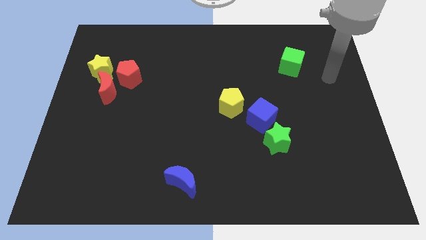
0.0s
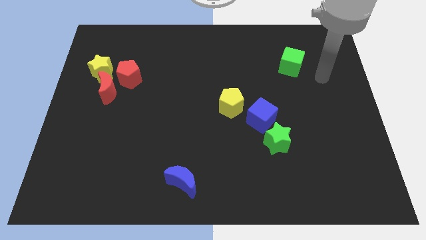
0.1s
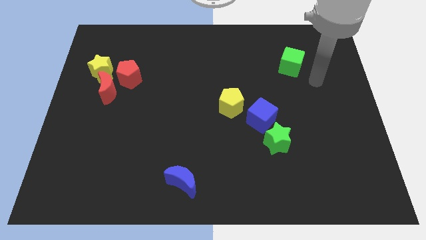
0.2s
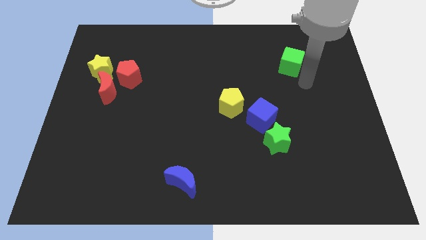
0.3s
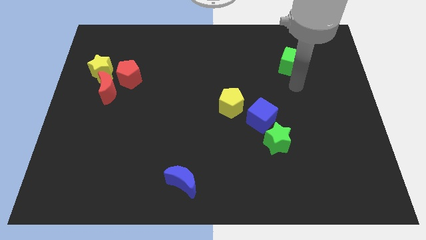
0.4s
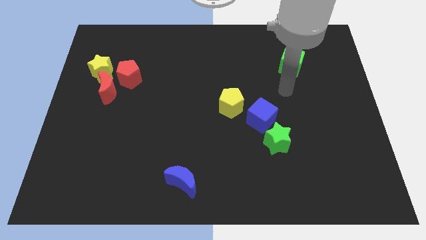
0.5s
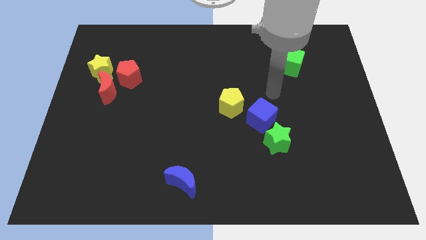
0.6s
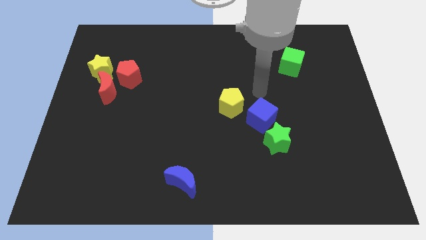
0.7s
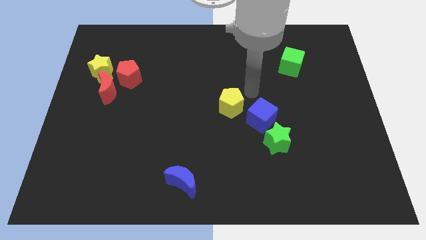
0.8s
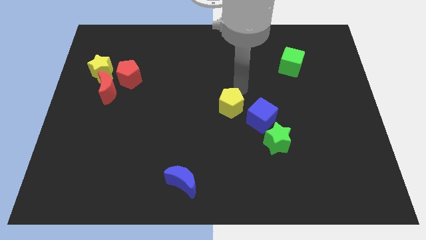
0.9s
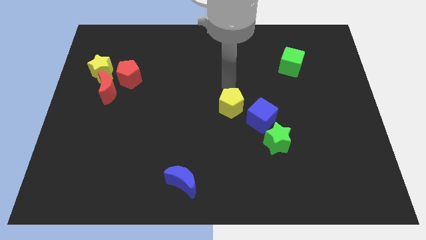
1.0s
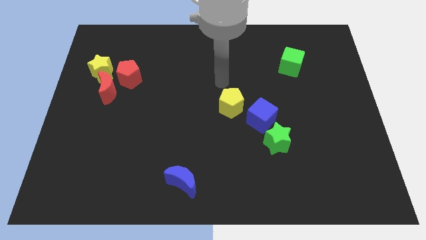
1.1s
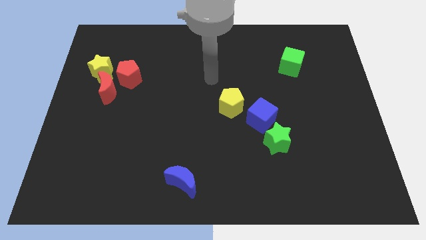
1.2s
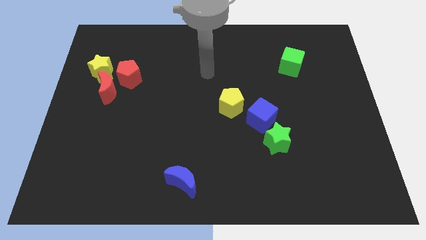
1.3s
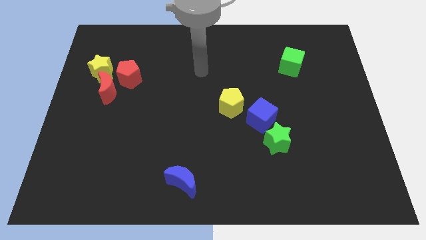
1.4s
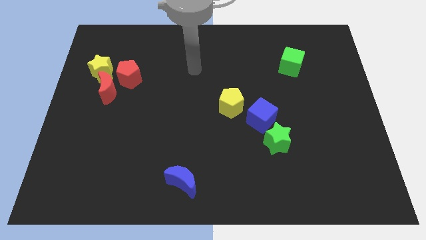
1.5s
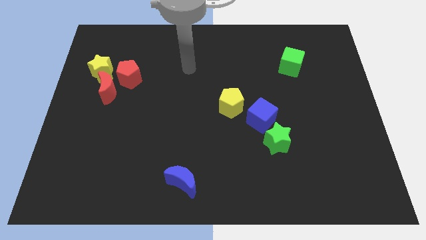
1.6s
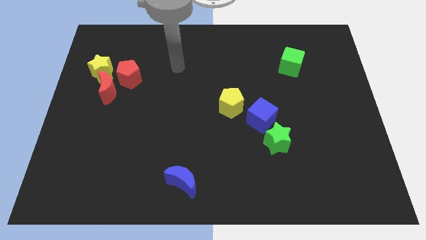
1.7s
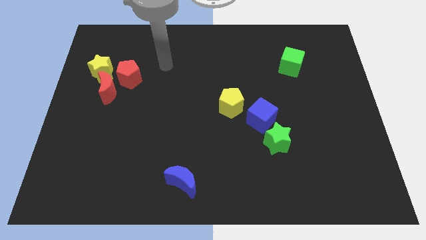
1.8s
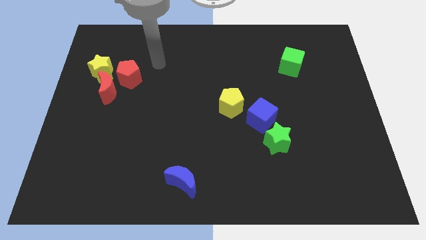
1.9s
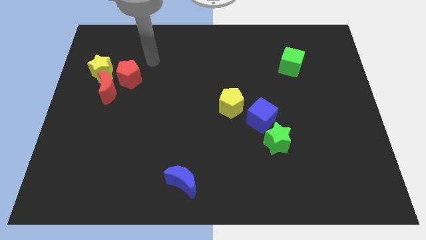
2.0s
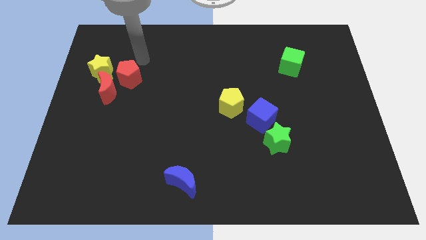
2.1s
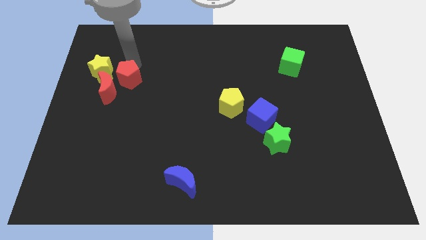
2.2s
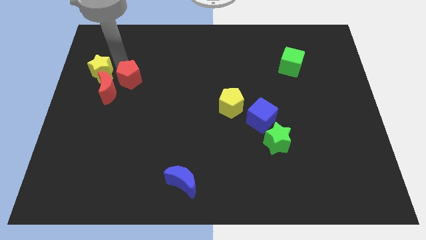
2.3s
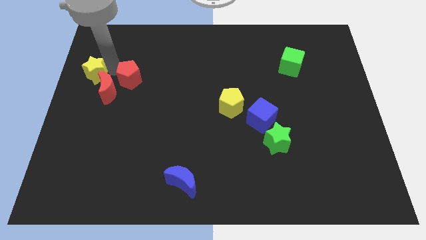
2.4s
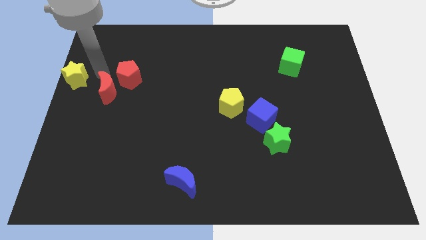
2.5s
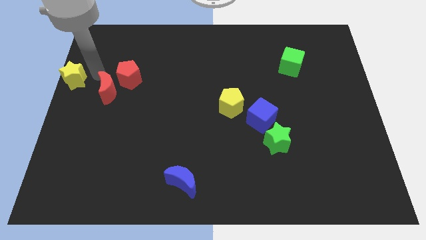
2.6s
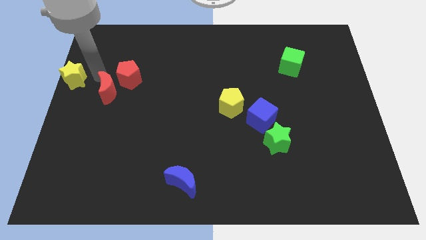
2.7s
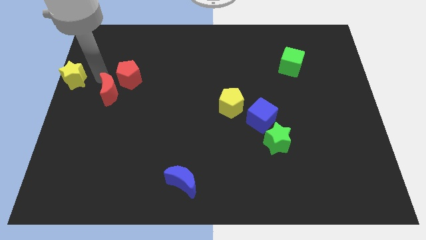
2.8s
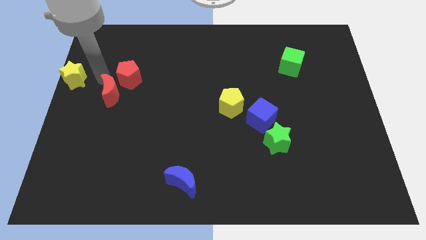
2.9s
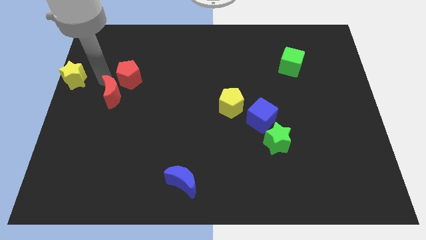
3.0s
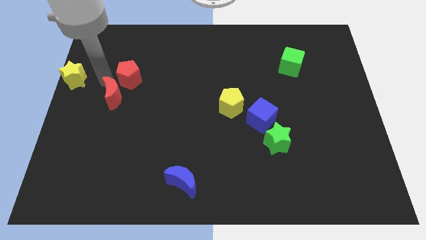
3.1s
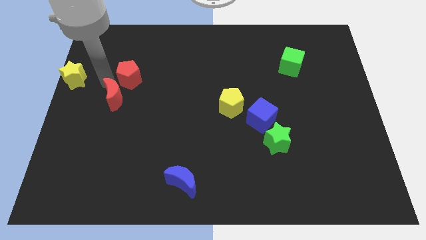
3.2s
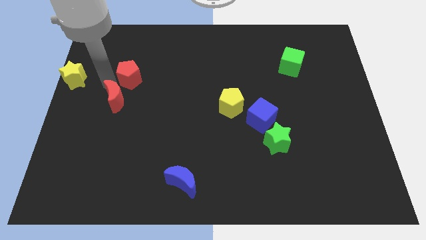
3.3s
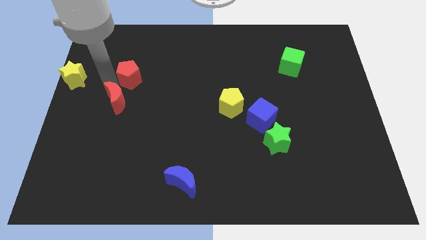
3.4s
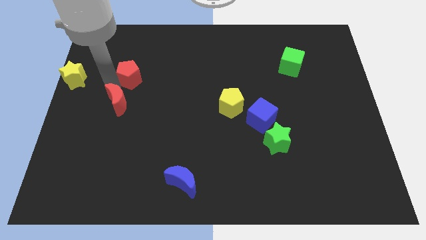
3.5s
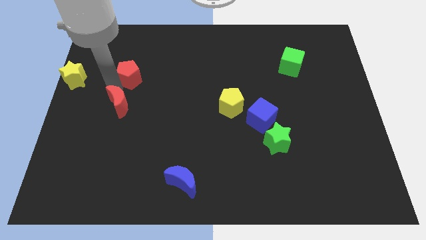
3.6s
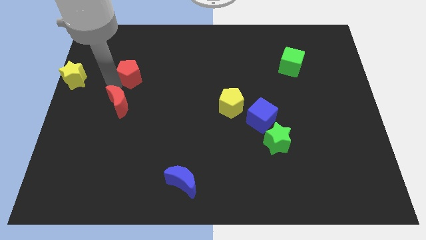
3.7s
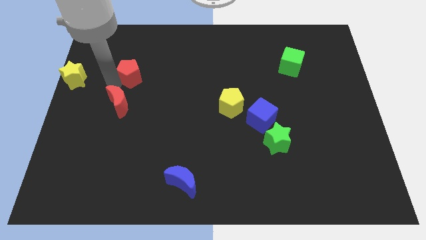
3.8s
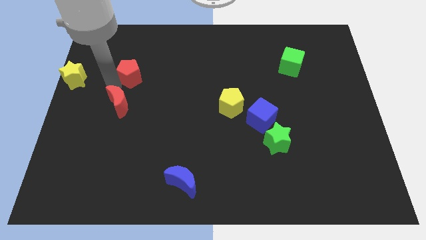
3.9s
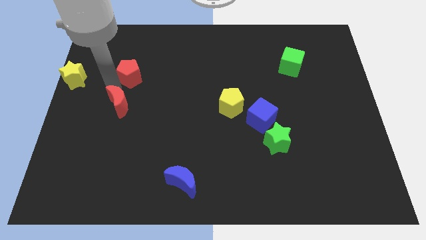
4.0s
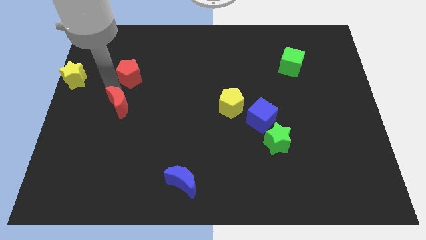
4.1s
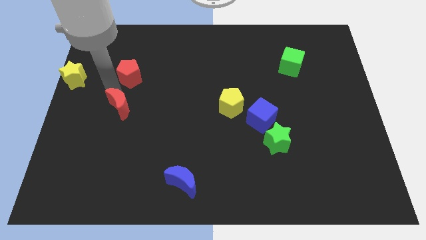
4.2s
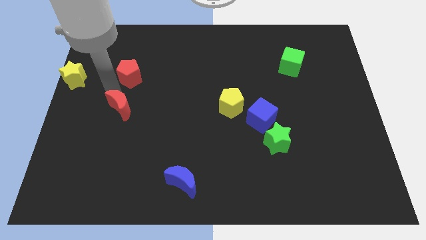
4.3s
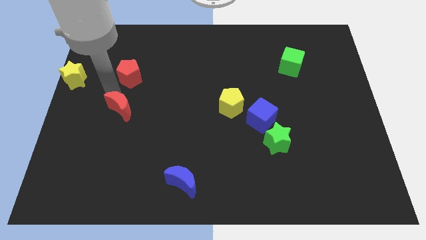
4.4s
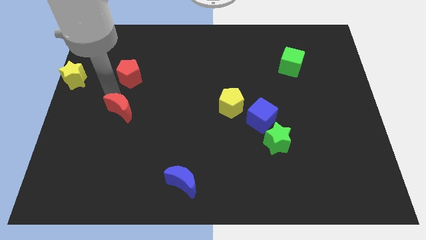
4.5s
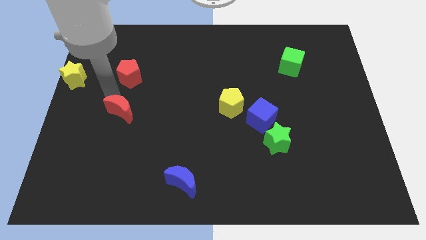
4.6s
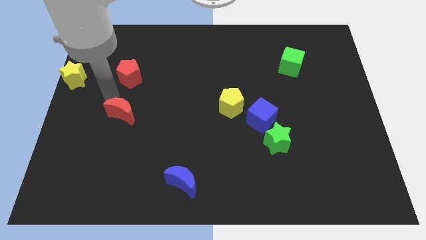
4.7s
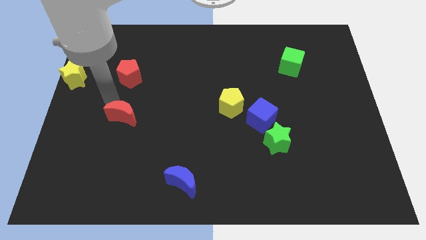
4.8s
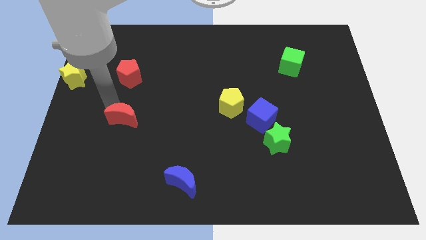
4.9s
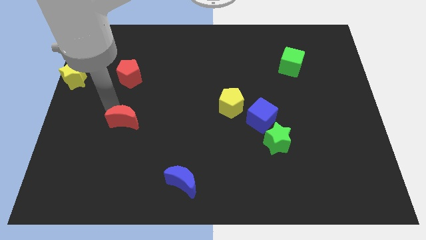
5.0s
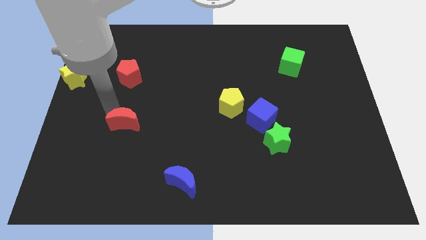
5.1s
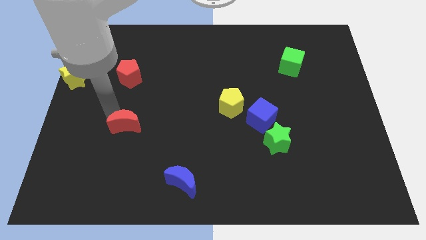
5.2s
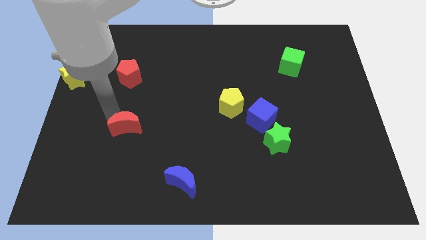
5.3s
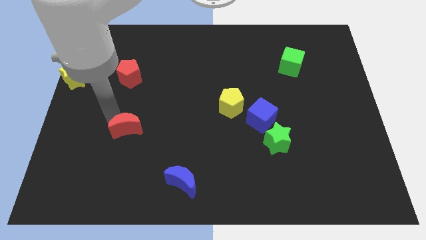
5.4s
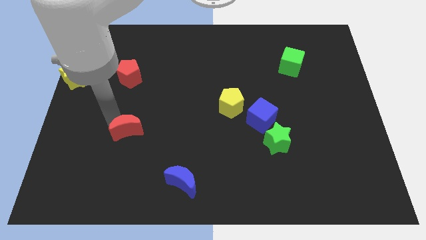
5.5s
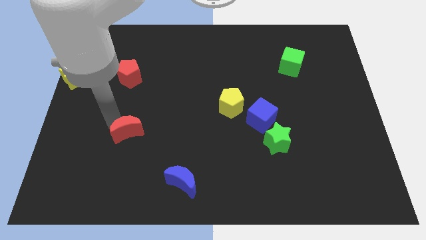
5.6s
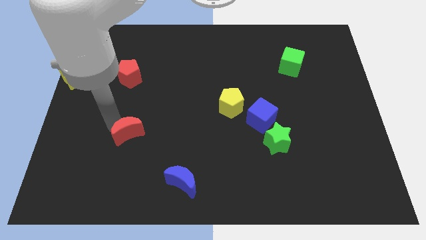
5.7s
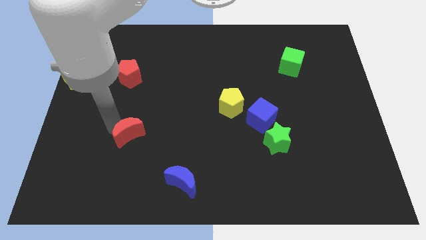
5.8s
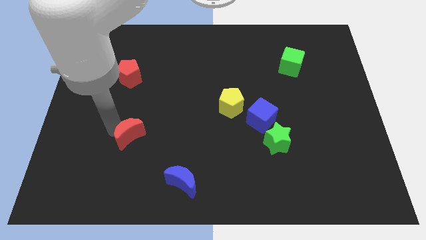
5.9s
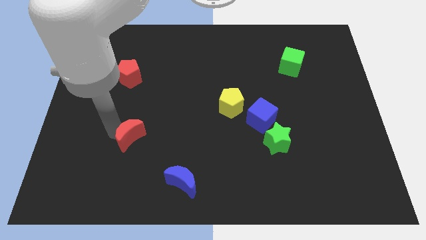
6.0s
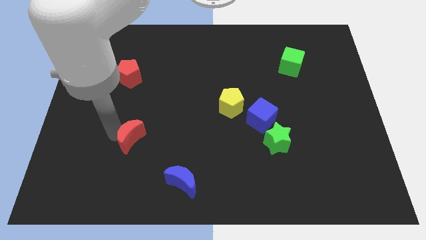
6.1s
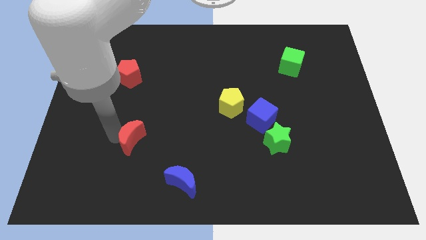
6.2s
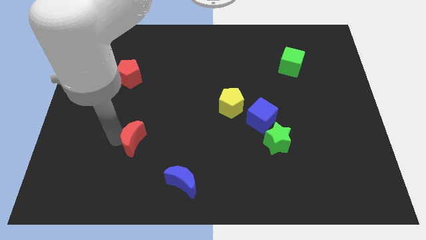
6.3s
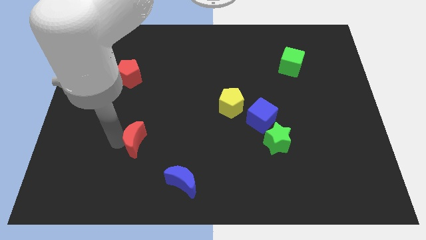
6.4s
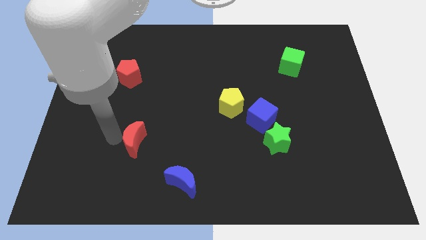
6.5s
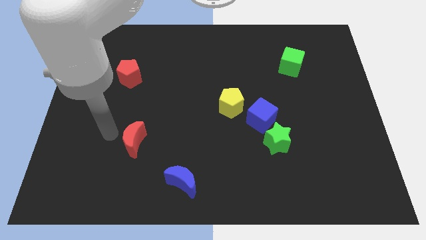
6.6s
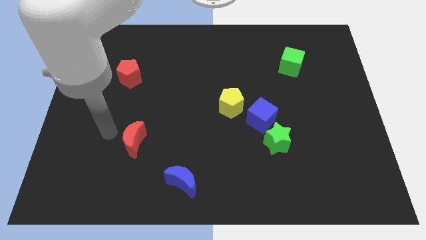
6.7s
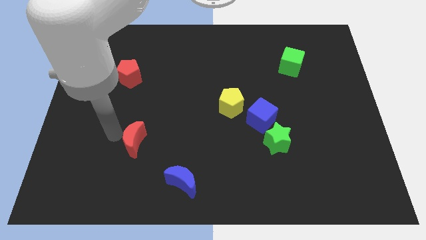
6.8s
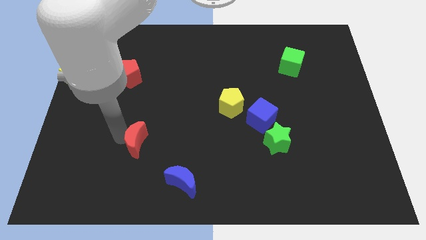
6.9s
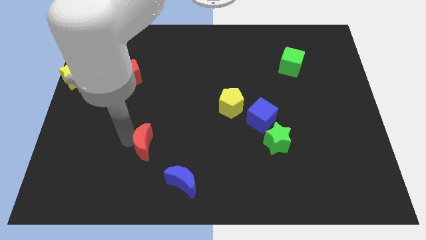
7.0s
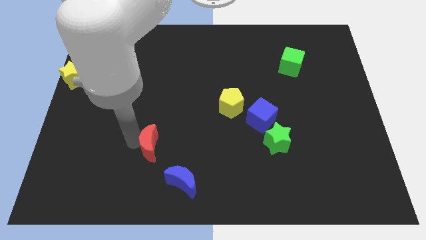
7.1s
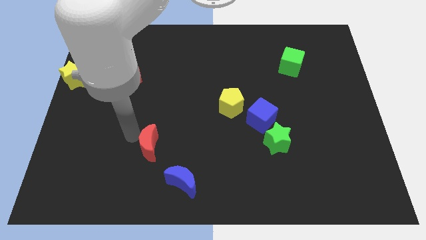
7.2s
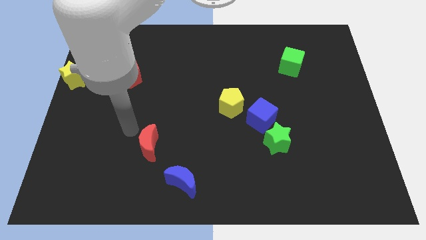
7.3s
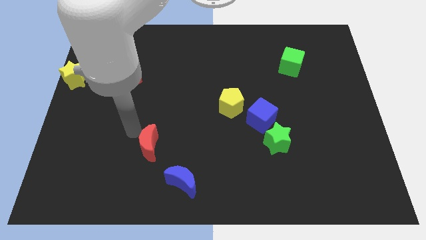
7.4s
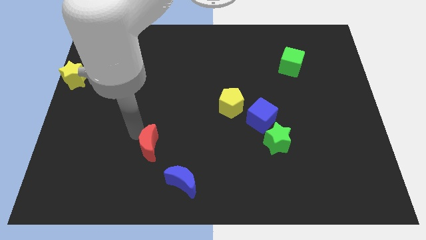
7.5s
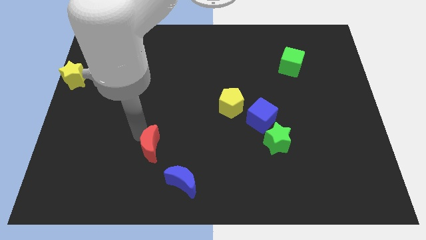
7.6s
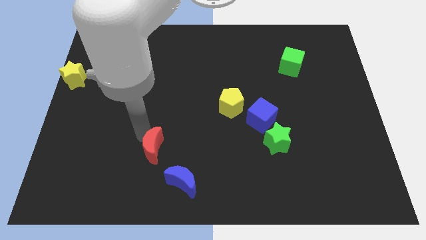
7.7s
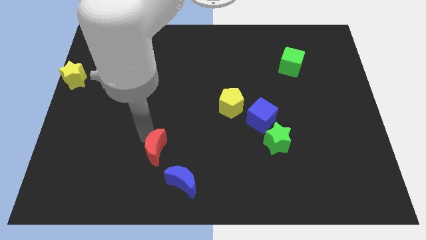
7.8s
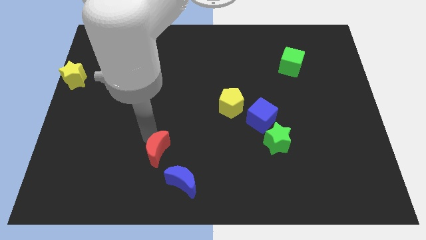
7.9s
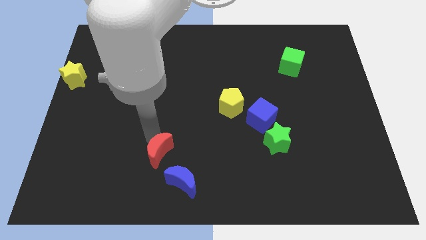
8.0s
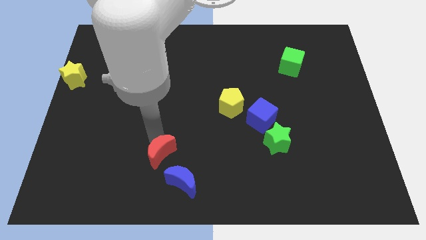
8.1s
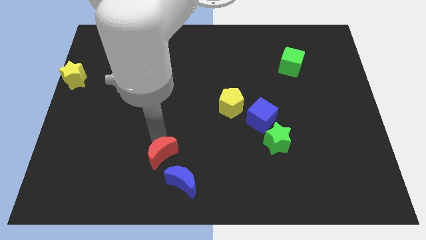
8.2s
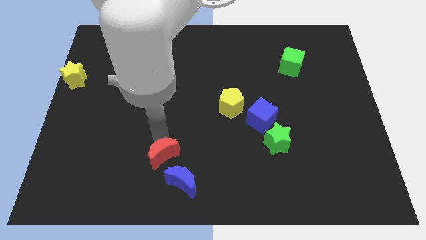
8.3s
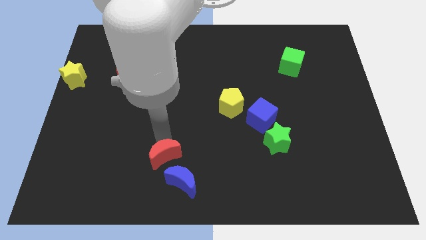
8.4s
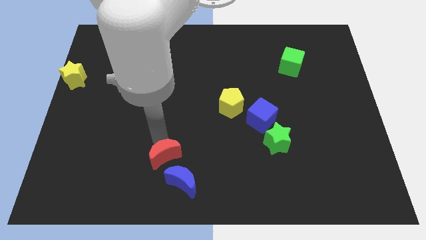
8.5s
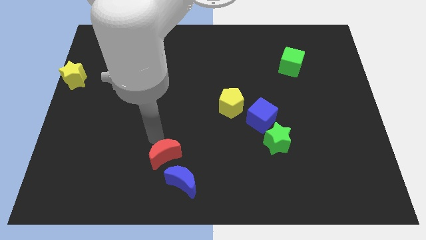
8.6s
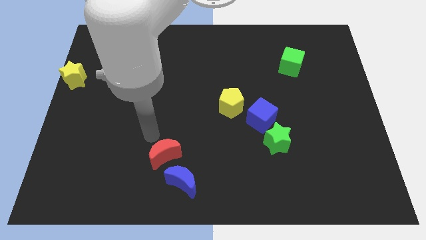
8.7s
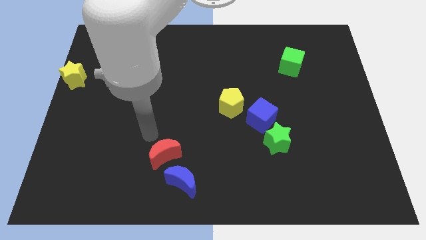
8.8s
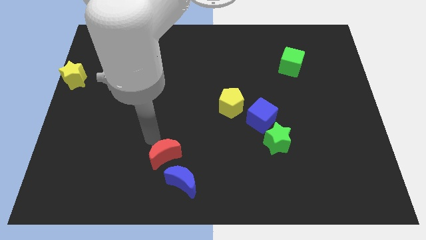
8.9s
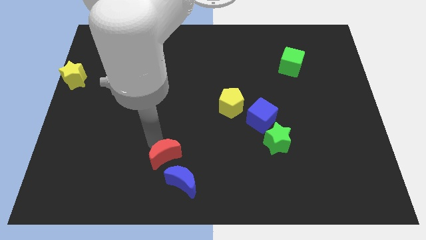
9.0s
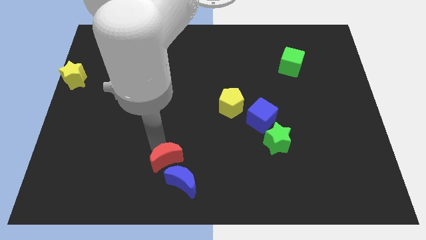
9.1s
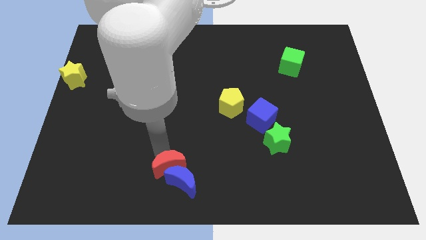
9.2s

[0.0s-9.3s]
put the red moon towards the blue moon
